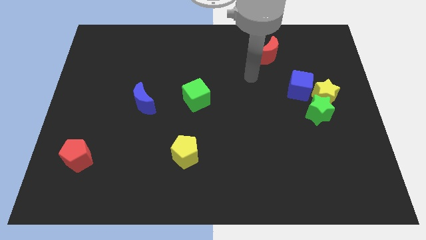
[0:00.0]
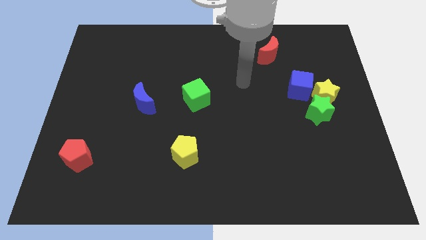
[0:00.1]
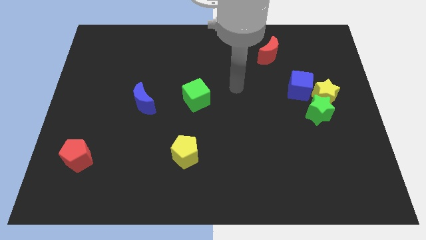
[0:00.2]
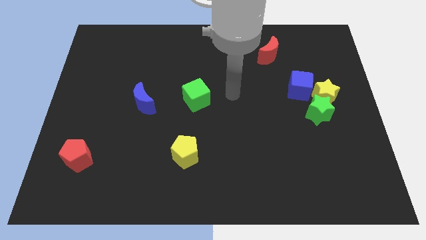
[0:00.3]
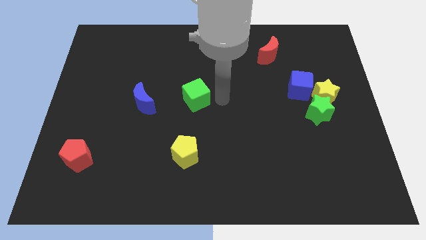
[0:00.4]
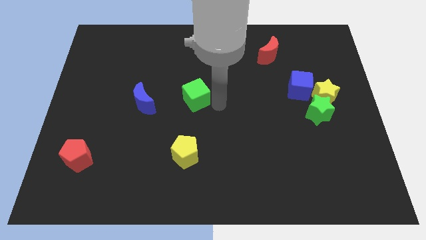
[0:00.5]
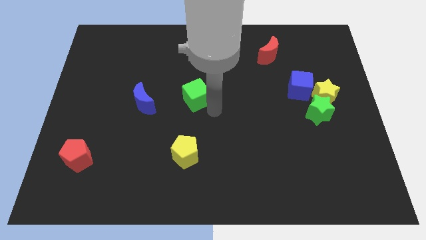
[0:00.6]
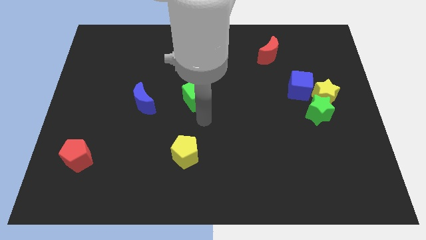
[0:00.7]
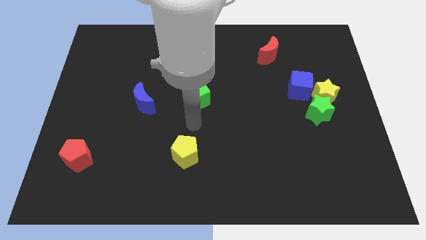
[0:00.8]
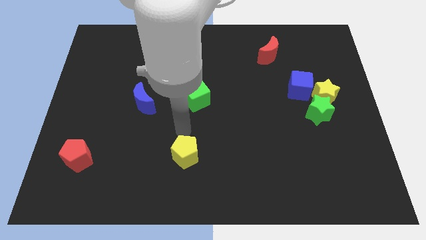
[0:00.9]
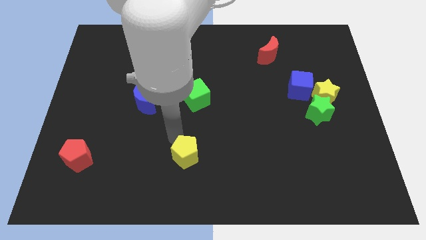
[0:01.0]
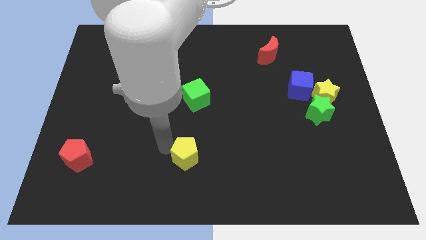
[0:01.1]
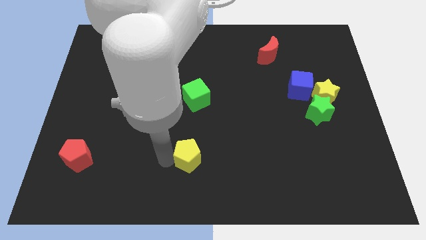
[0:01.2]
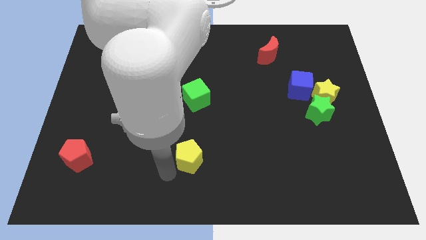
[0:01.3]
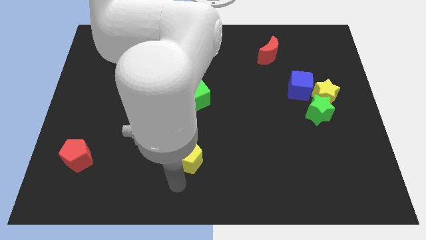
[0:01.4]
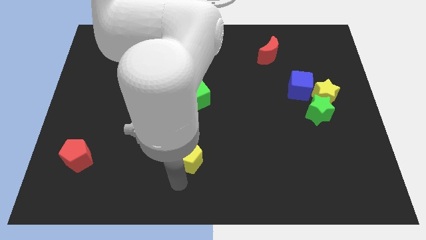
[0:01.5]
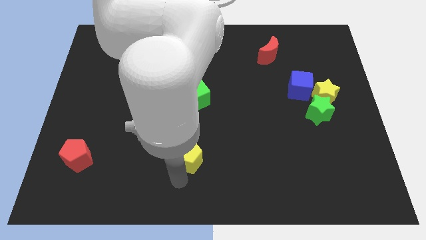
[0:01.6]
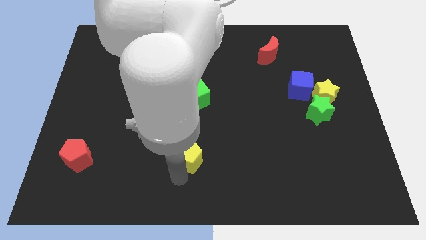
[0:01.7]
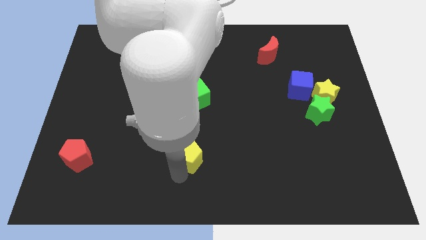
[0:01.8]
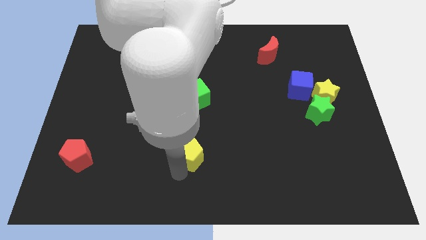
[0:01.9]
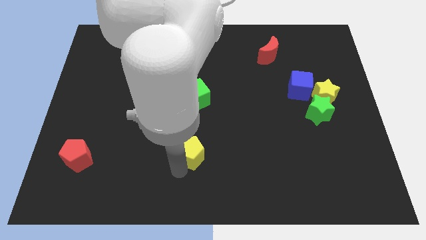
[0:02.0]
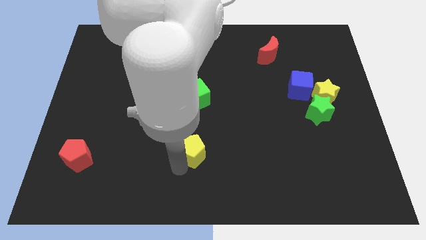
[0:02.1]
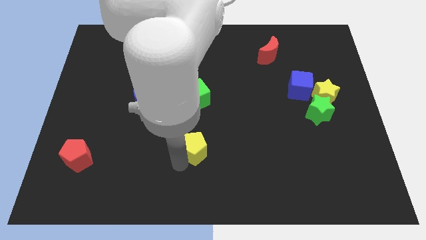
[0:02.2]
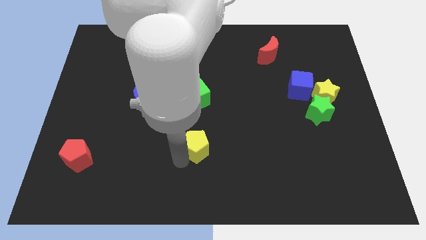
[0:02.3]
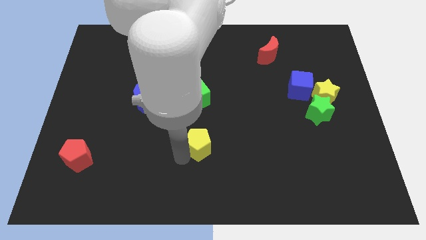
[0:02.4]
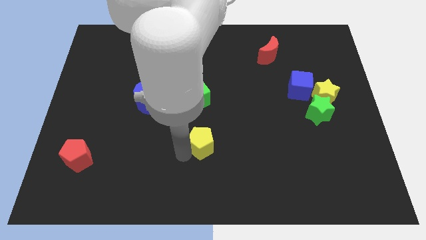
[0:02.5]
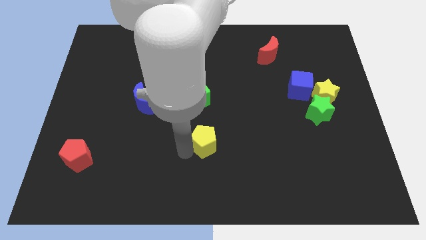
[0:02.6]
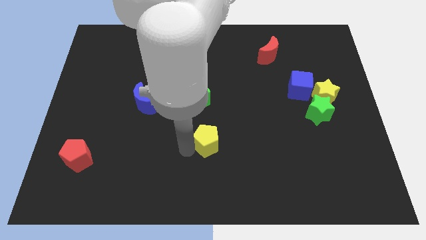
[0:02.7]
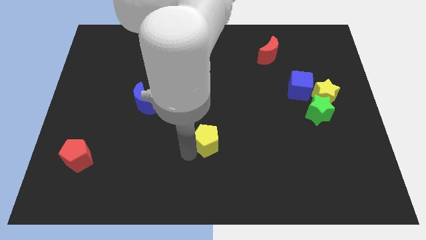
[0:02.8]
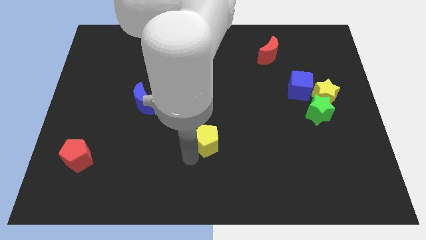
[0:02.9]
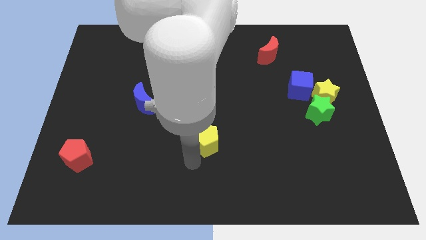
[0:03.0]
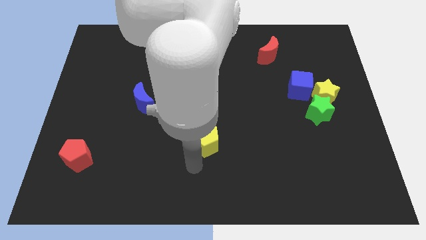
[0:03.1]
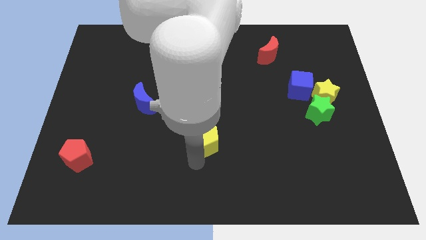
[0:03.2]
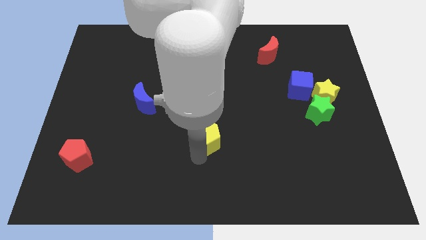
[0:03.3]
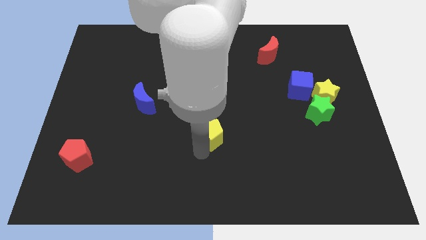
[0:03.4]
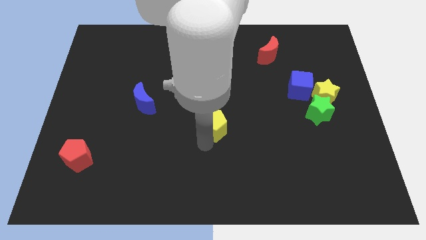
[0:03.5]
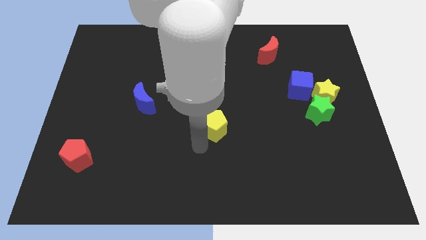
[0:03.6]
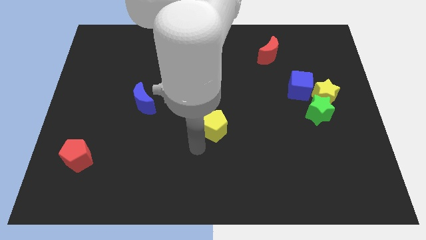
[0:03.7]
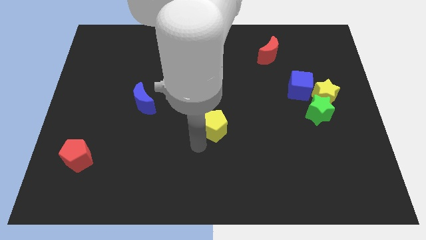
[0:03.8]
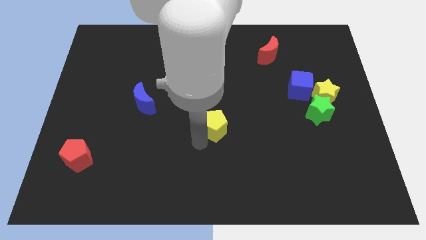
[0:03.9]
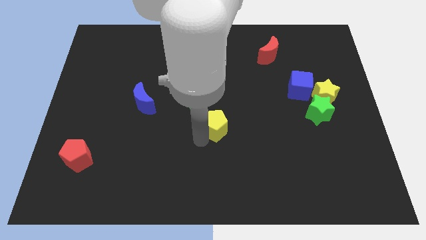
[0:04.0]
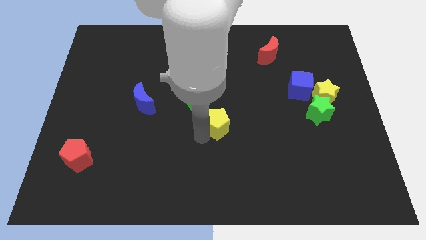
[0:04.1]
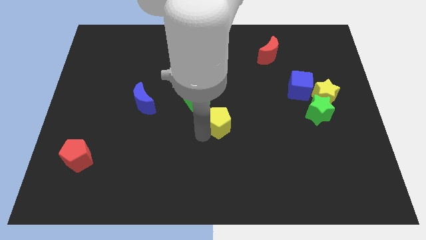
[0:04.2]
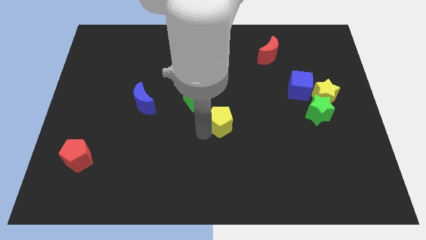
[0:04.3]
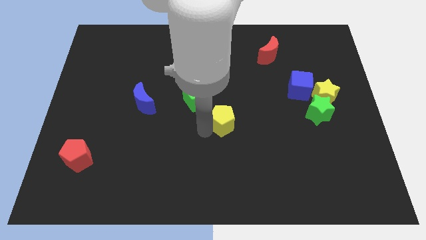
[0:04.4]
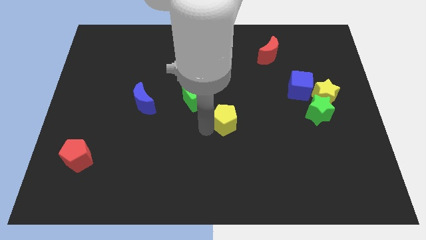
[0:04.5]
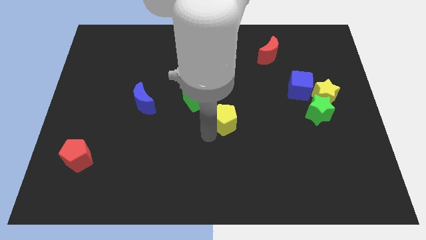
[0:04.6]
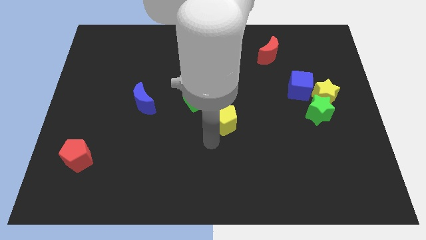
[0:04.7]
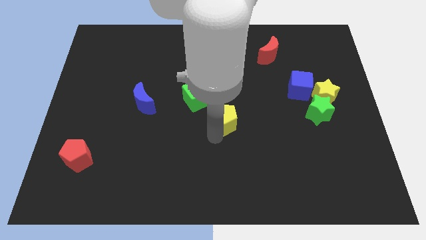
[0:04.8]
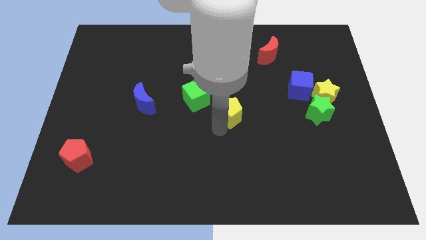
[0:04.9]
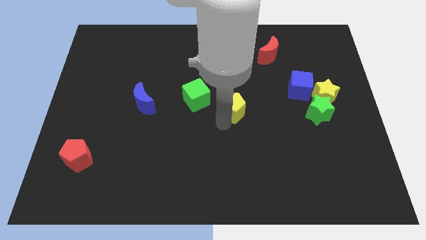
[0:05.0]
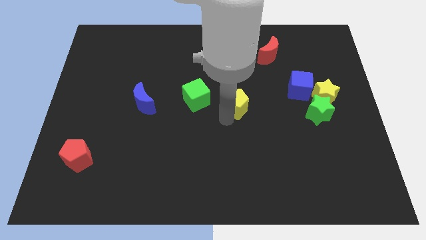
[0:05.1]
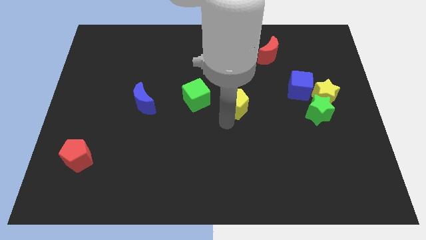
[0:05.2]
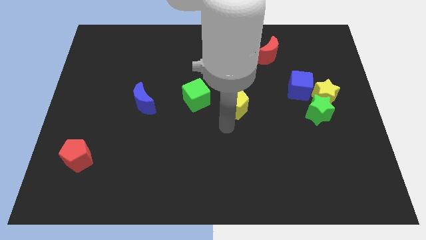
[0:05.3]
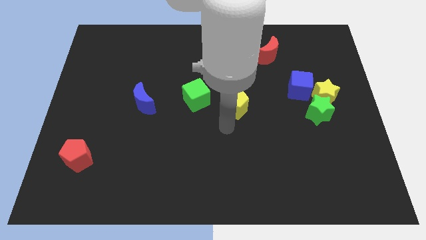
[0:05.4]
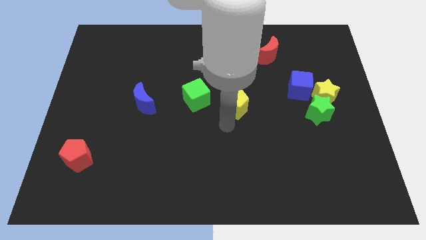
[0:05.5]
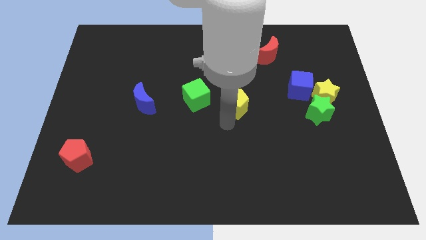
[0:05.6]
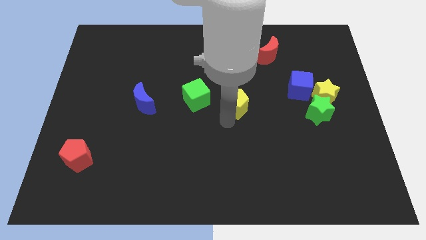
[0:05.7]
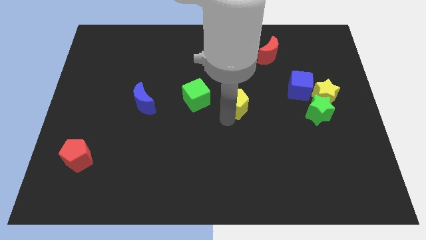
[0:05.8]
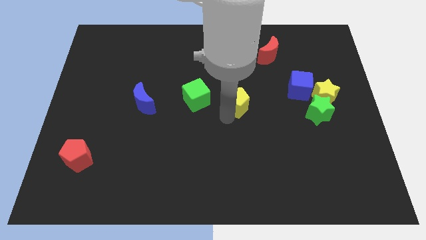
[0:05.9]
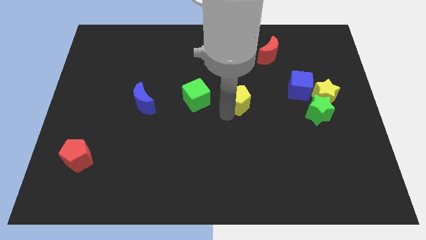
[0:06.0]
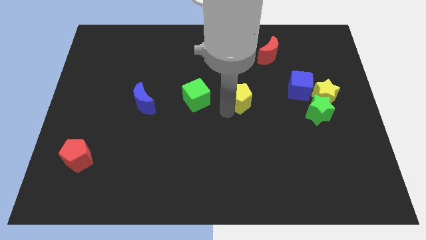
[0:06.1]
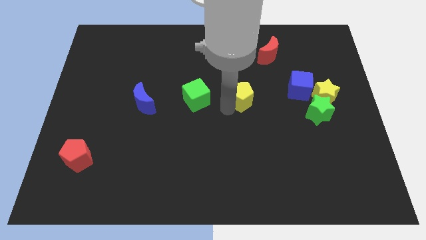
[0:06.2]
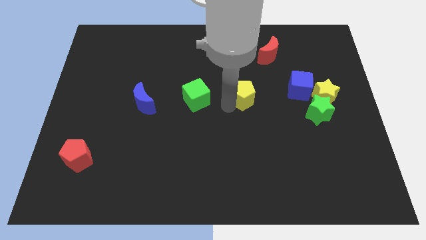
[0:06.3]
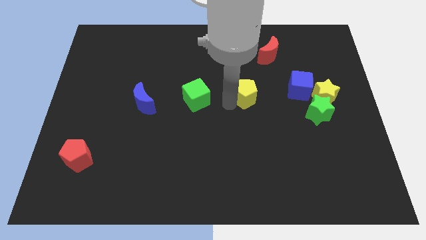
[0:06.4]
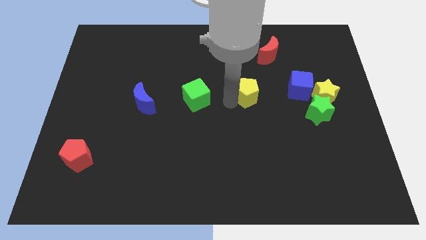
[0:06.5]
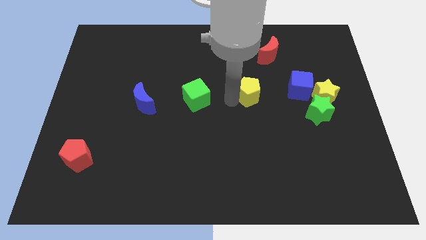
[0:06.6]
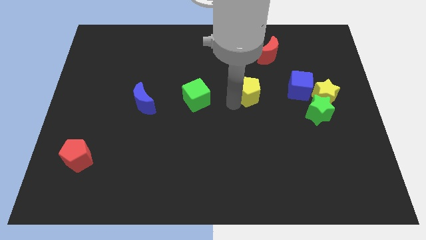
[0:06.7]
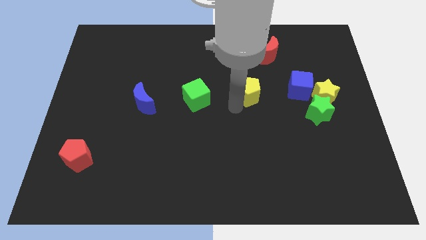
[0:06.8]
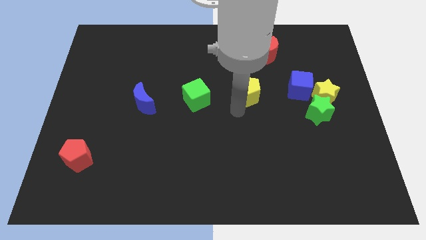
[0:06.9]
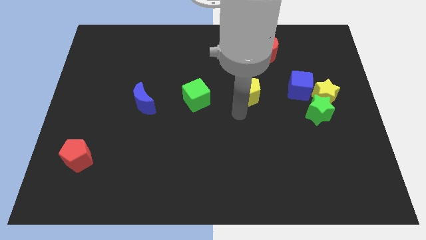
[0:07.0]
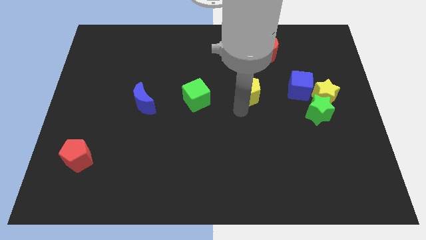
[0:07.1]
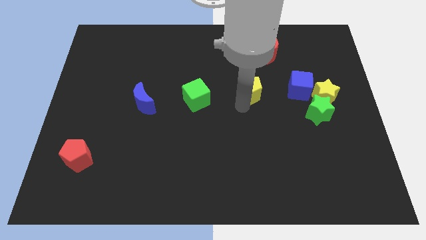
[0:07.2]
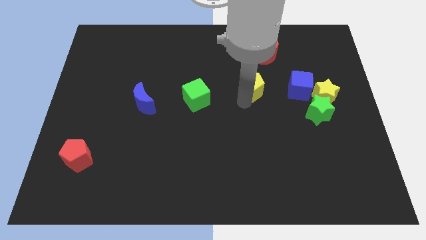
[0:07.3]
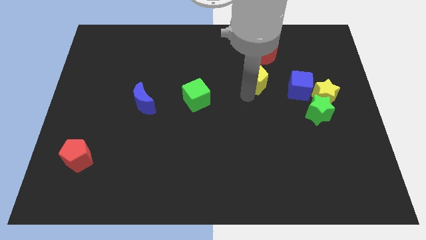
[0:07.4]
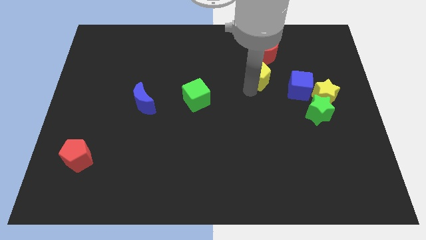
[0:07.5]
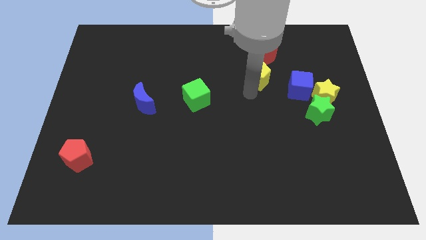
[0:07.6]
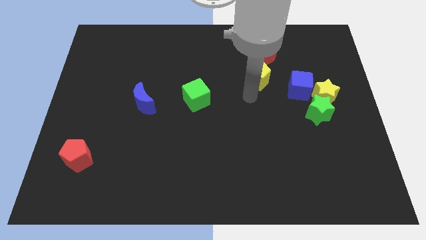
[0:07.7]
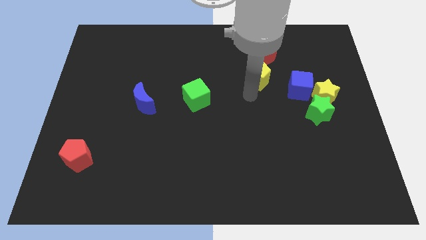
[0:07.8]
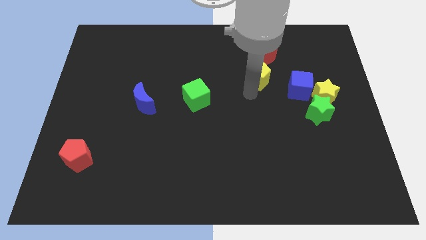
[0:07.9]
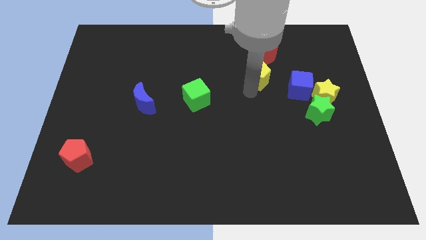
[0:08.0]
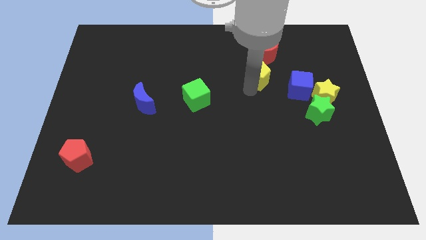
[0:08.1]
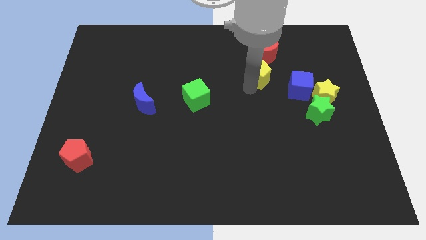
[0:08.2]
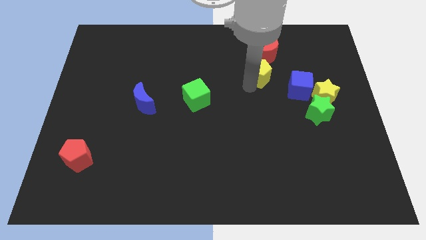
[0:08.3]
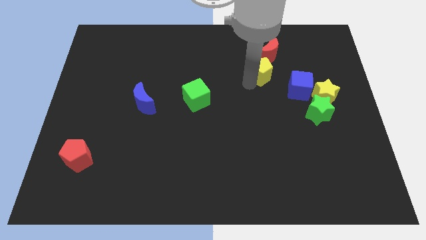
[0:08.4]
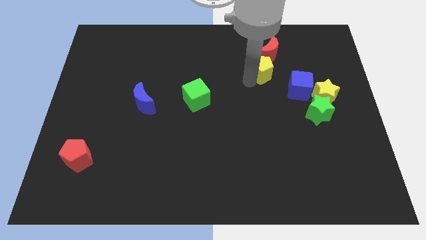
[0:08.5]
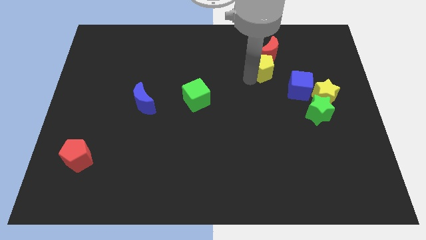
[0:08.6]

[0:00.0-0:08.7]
put the yellow pentagon to the red moon
